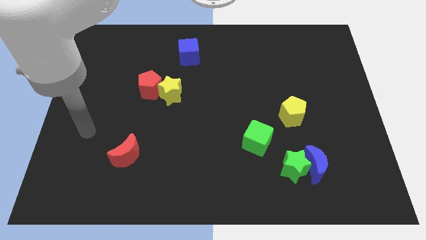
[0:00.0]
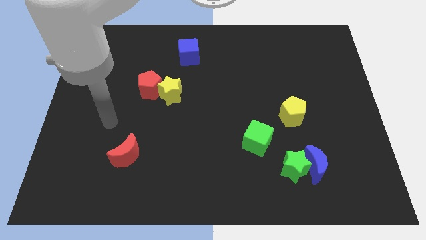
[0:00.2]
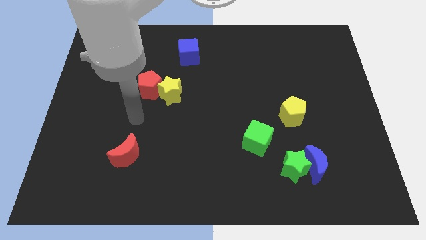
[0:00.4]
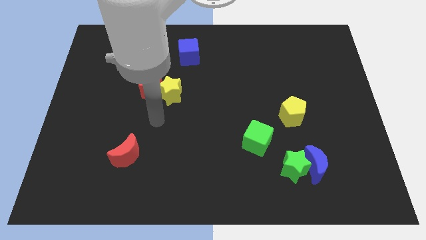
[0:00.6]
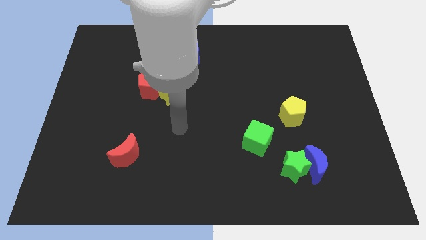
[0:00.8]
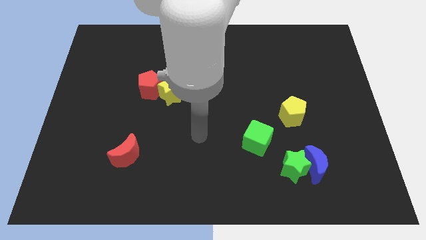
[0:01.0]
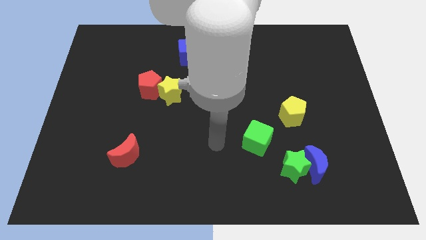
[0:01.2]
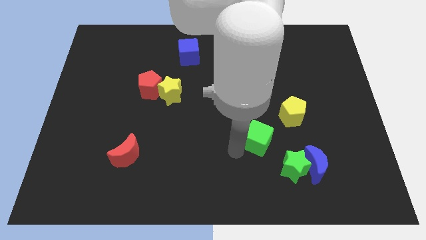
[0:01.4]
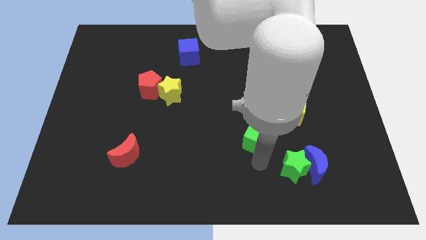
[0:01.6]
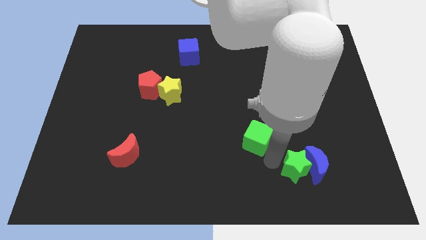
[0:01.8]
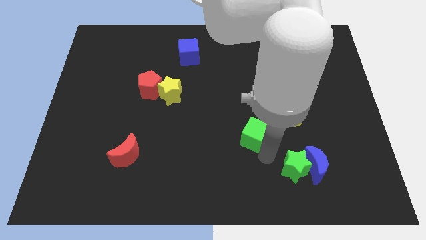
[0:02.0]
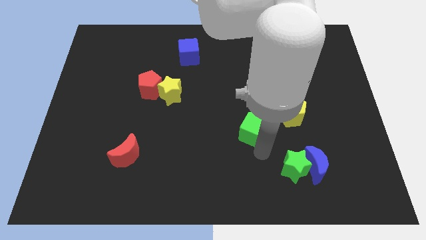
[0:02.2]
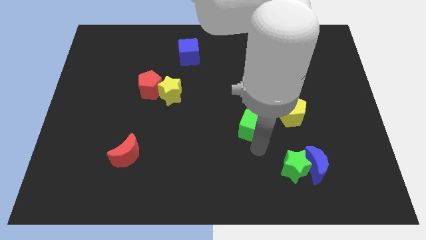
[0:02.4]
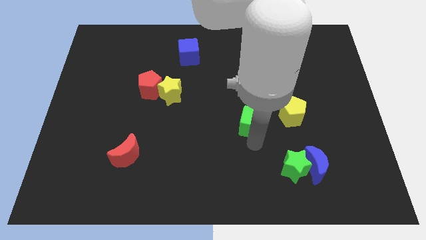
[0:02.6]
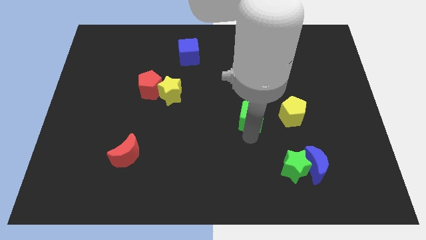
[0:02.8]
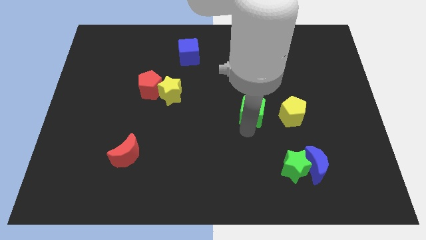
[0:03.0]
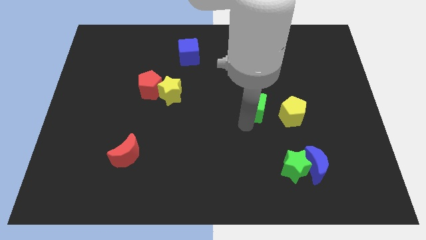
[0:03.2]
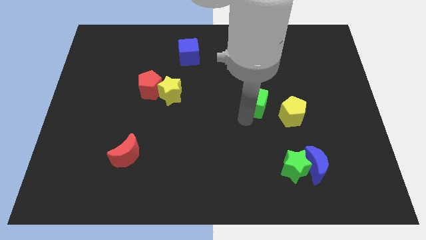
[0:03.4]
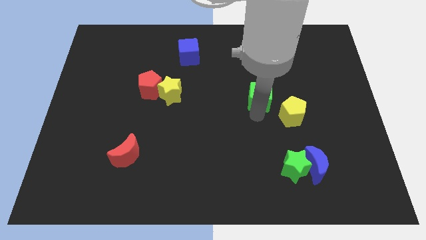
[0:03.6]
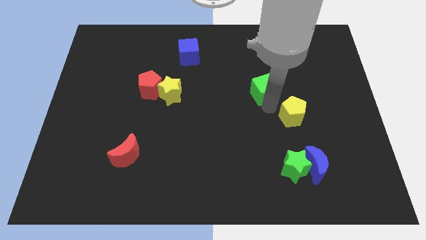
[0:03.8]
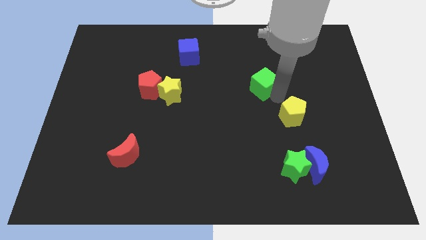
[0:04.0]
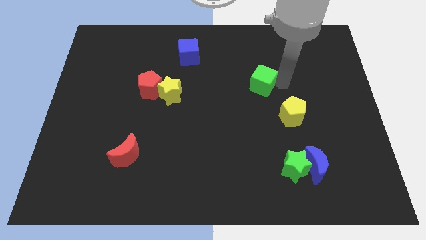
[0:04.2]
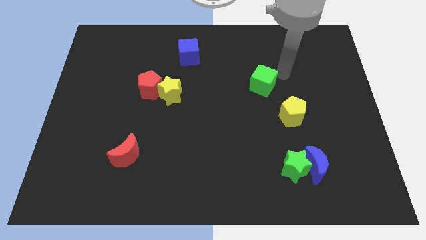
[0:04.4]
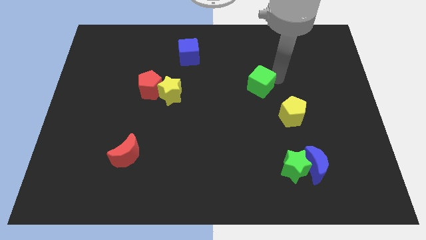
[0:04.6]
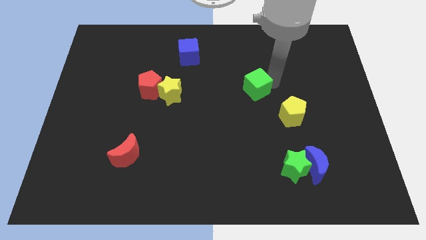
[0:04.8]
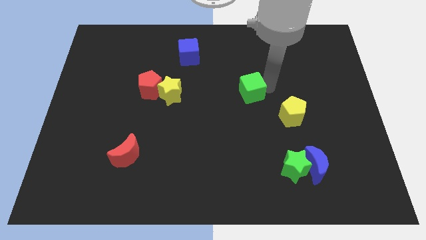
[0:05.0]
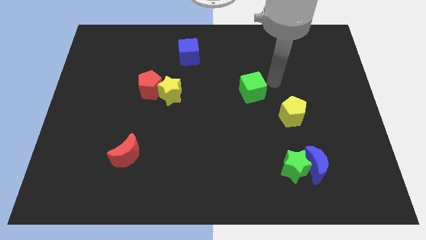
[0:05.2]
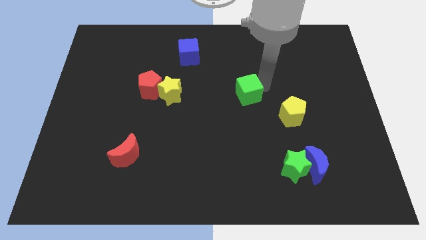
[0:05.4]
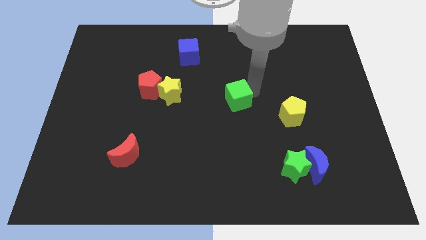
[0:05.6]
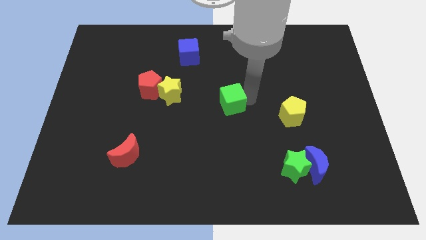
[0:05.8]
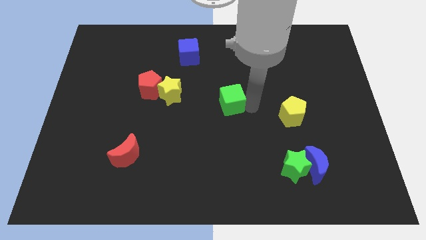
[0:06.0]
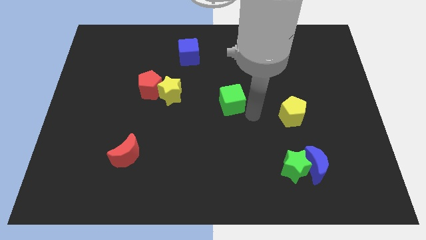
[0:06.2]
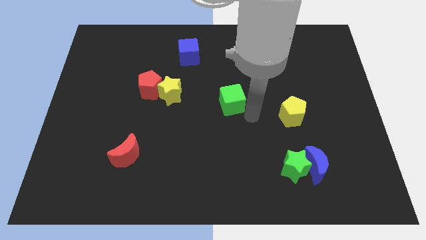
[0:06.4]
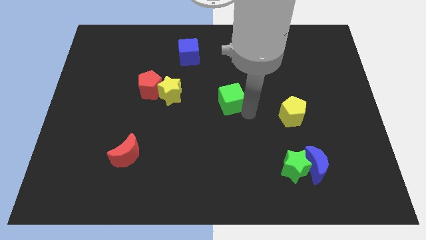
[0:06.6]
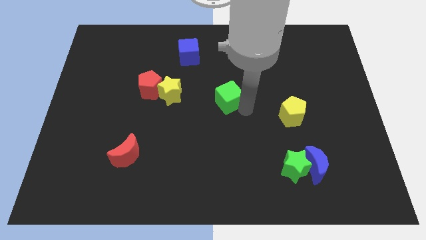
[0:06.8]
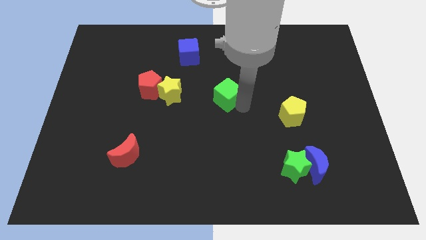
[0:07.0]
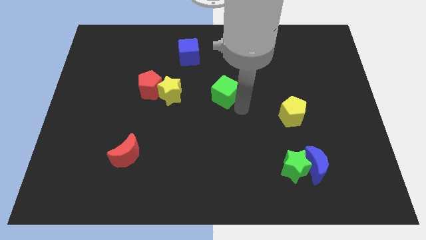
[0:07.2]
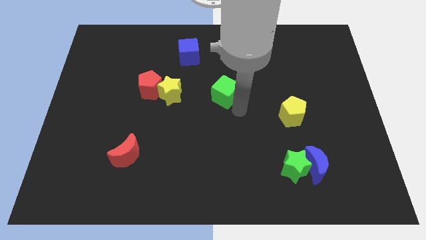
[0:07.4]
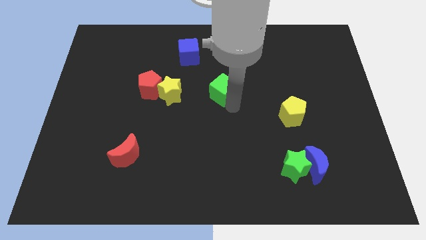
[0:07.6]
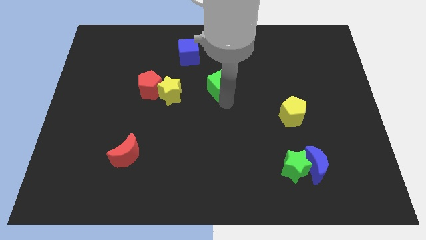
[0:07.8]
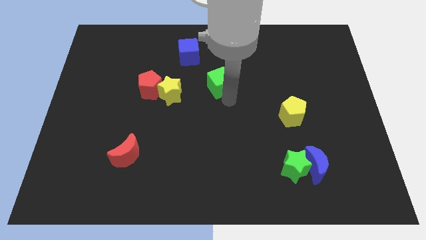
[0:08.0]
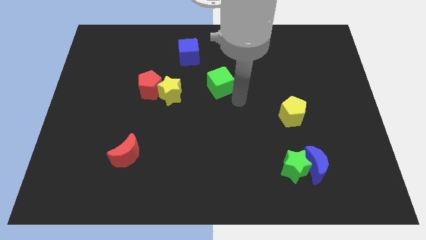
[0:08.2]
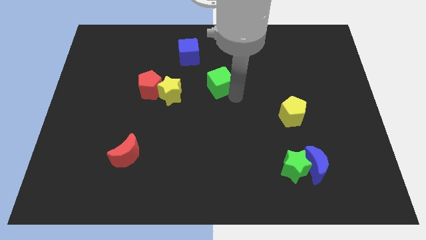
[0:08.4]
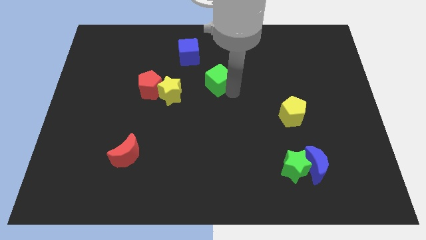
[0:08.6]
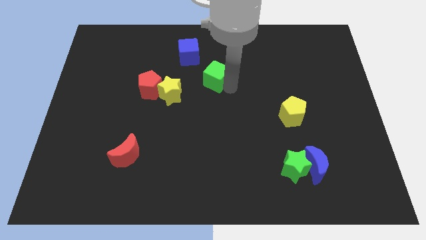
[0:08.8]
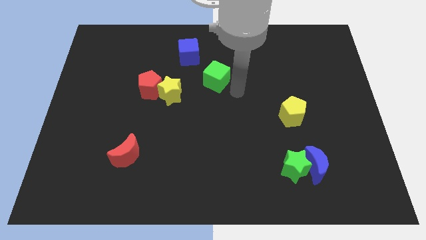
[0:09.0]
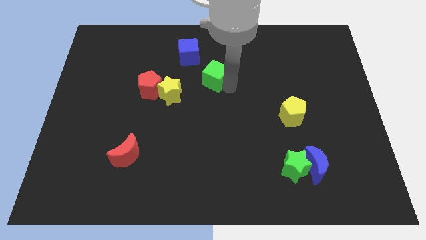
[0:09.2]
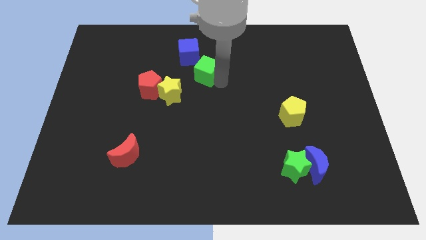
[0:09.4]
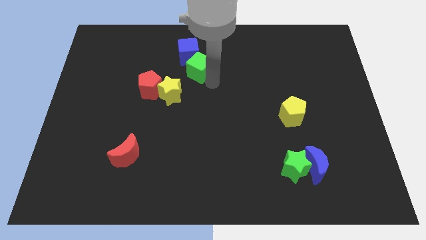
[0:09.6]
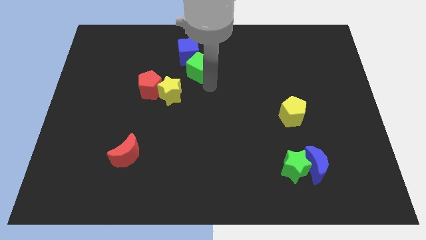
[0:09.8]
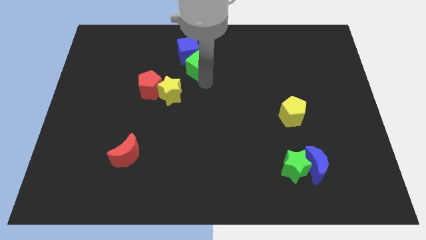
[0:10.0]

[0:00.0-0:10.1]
move the green cube towards the blue cube

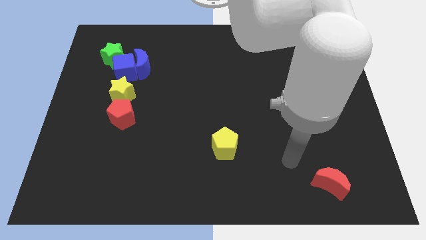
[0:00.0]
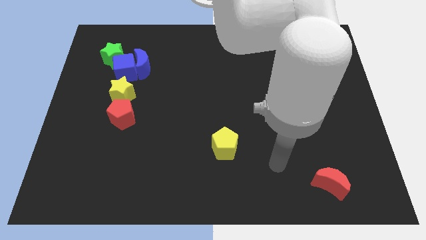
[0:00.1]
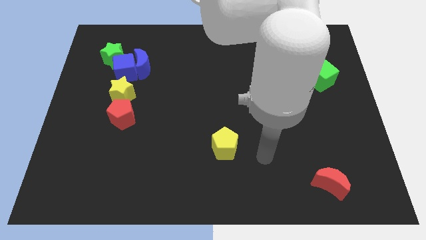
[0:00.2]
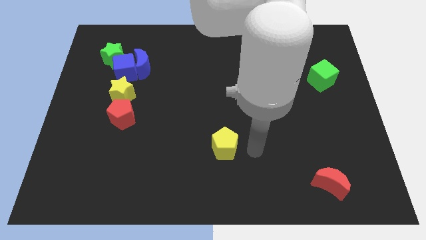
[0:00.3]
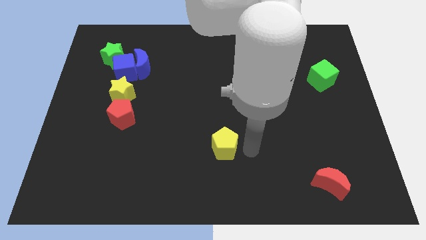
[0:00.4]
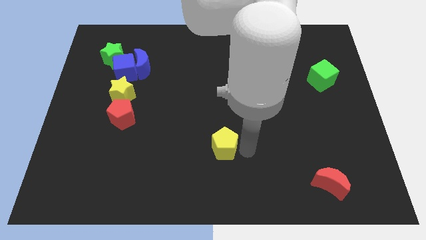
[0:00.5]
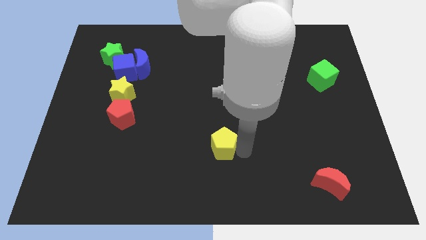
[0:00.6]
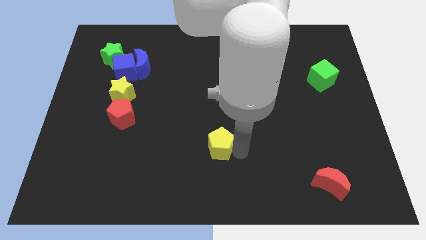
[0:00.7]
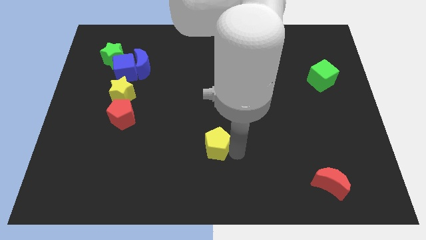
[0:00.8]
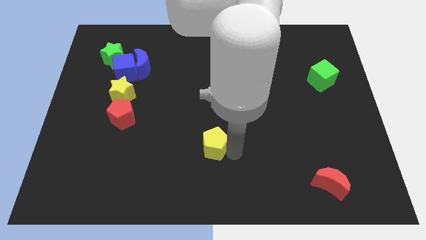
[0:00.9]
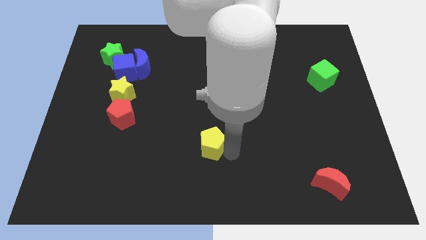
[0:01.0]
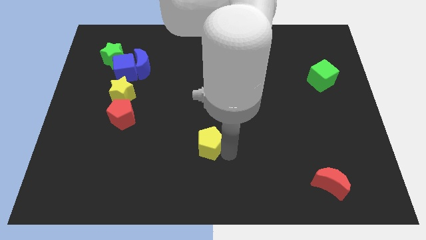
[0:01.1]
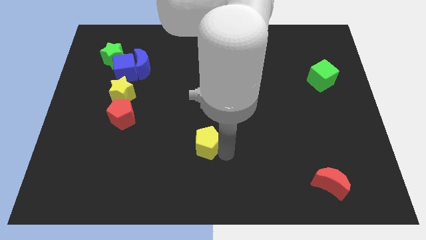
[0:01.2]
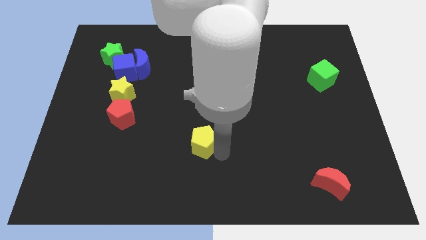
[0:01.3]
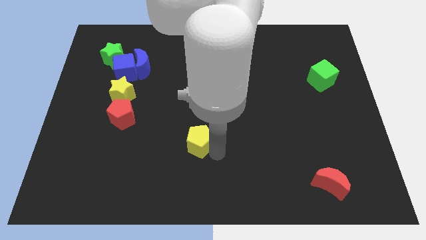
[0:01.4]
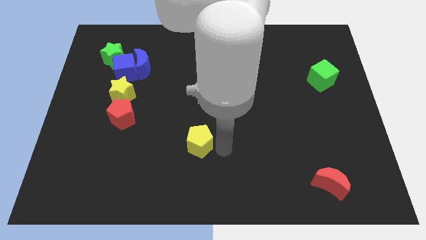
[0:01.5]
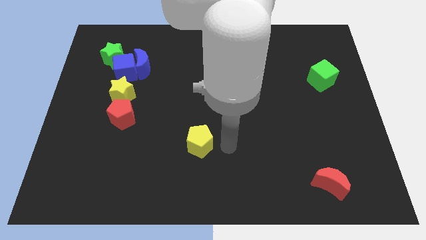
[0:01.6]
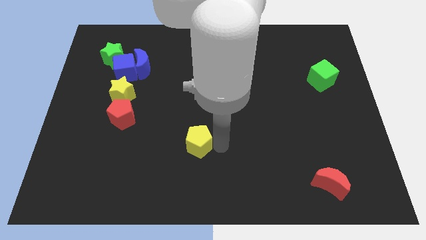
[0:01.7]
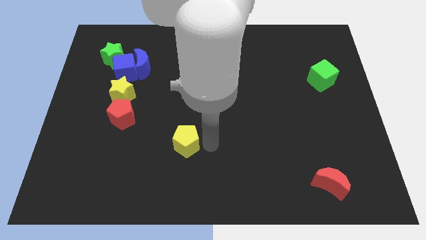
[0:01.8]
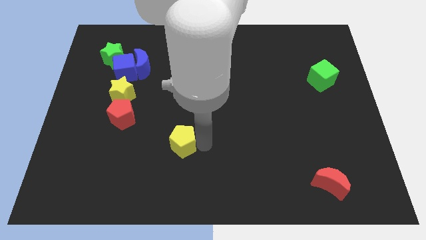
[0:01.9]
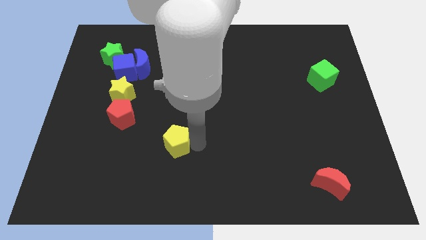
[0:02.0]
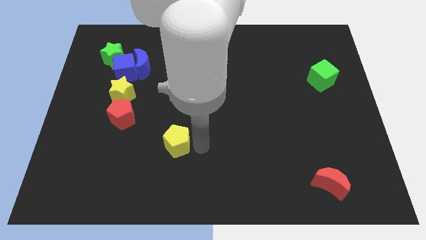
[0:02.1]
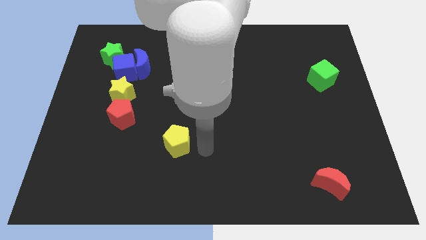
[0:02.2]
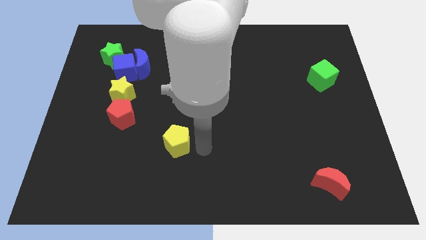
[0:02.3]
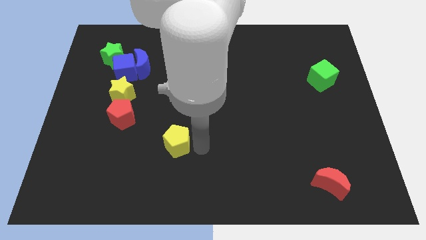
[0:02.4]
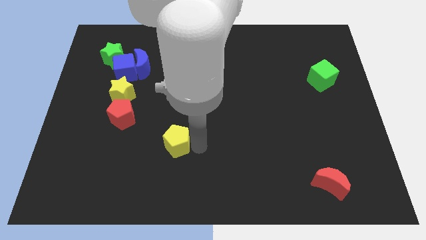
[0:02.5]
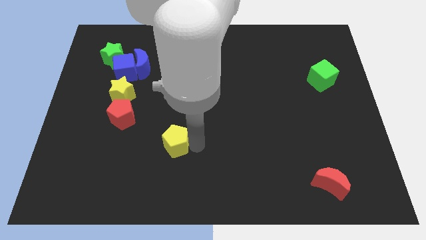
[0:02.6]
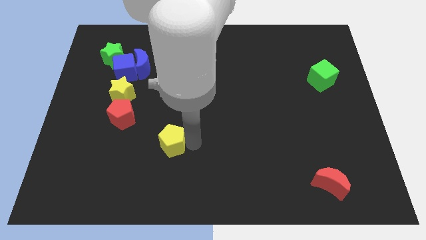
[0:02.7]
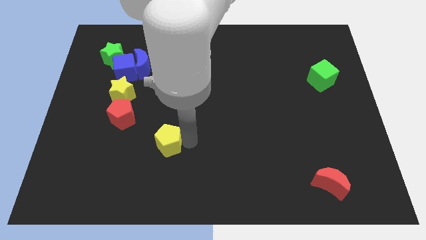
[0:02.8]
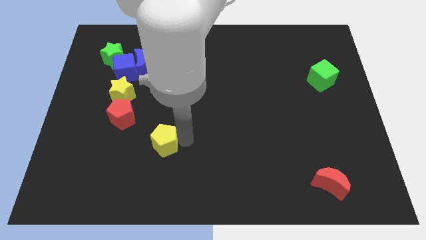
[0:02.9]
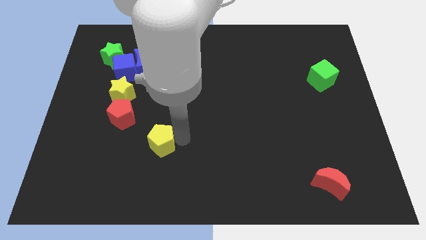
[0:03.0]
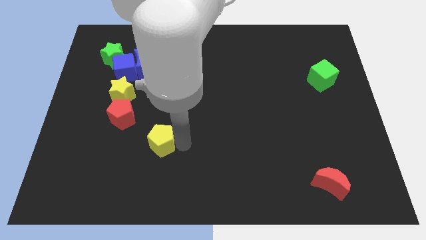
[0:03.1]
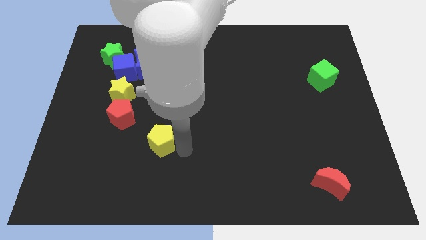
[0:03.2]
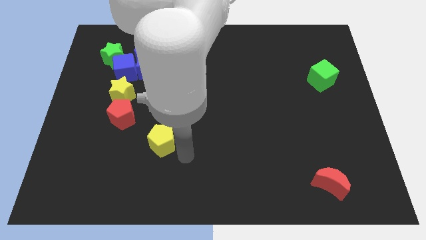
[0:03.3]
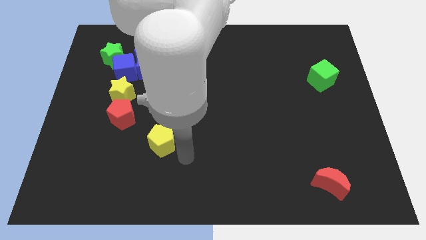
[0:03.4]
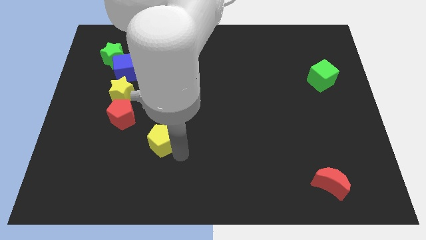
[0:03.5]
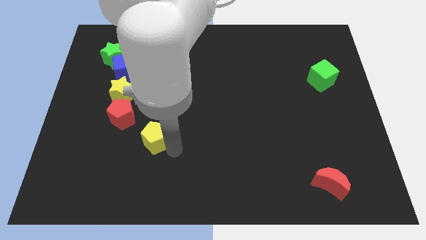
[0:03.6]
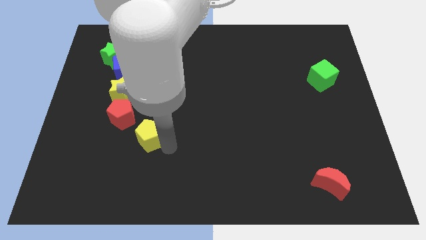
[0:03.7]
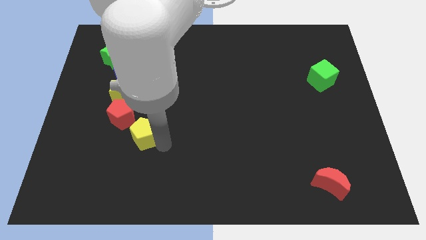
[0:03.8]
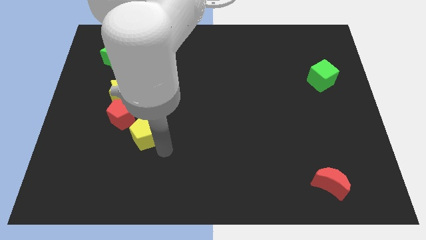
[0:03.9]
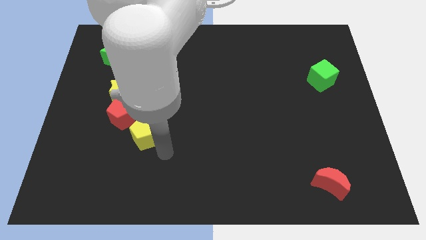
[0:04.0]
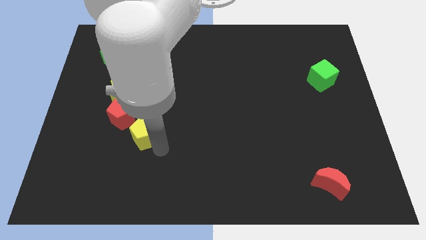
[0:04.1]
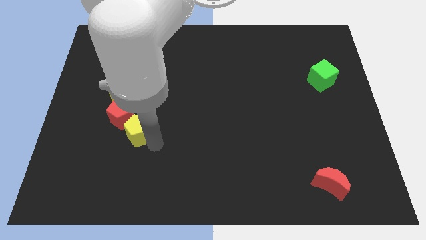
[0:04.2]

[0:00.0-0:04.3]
slide the yellow pentagon towards the red pentagon
